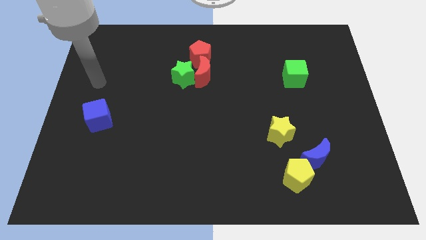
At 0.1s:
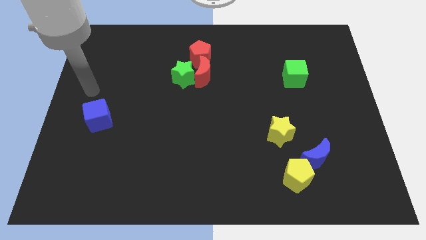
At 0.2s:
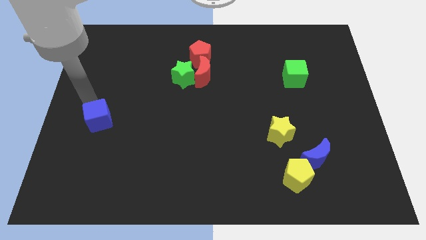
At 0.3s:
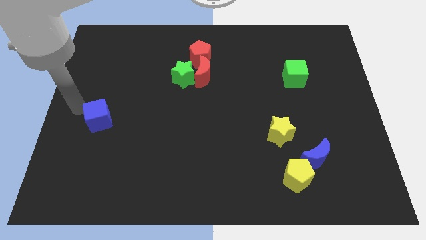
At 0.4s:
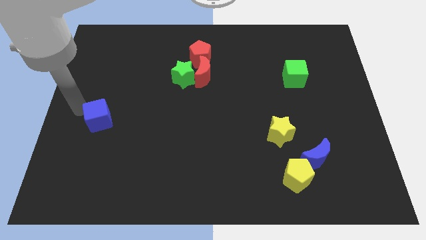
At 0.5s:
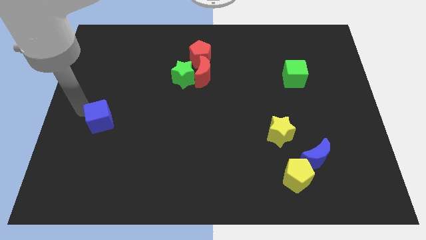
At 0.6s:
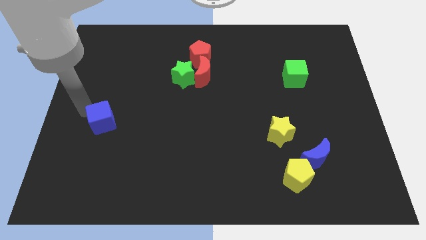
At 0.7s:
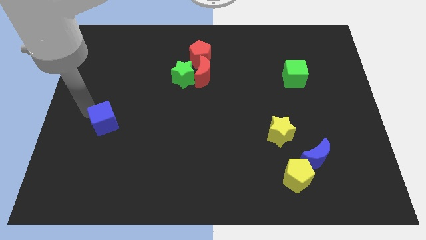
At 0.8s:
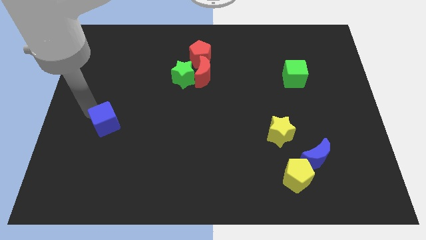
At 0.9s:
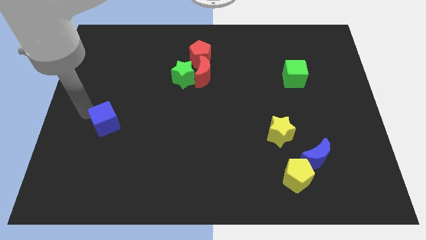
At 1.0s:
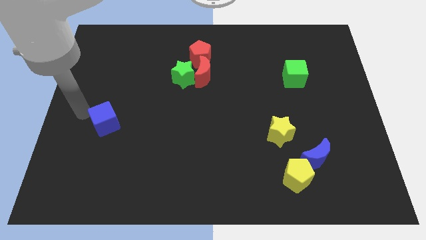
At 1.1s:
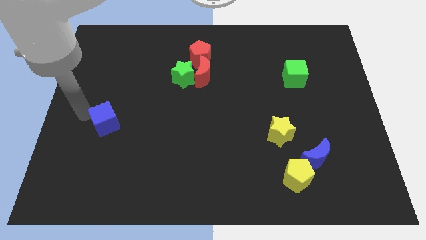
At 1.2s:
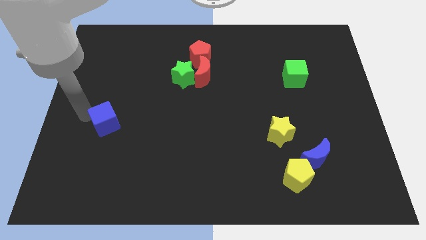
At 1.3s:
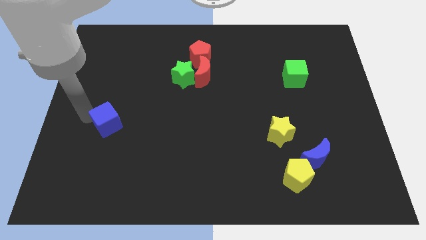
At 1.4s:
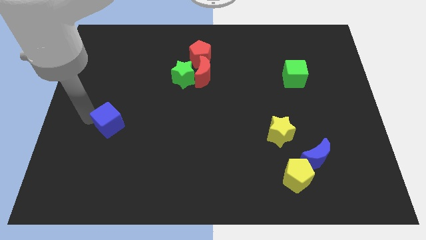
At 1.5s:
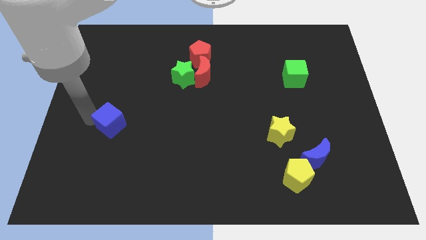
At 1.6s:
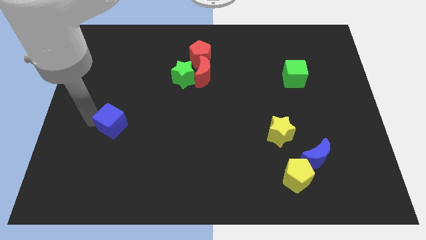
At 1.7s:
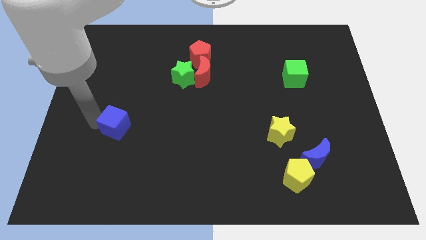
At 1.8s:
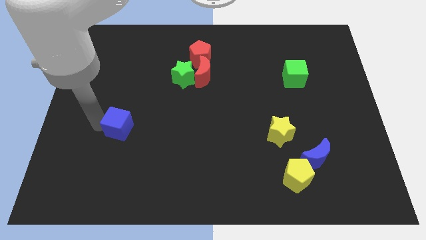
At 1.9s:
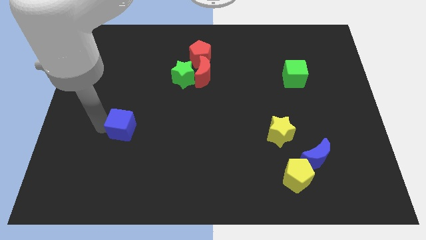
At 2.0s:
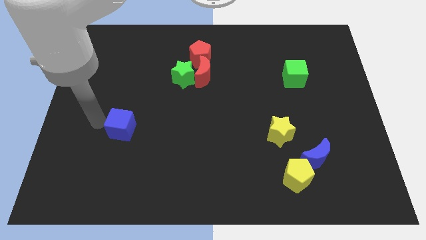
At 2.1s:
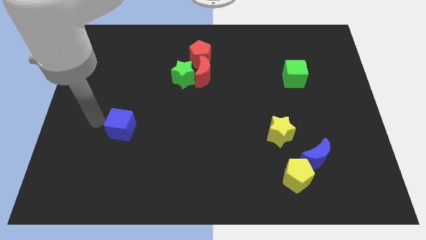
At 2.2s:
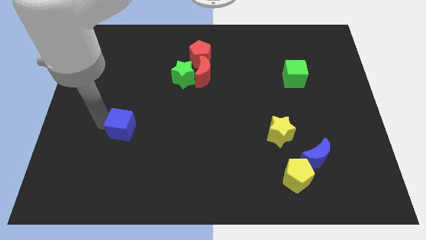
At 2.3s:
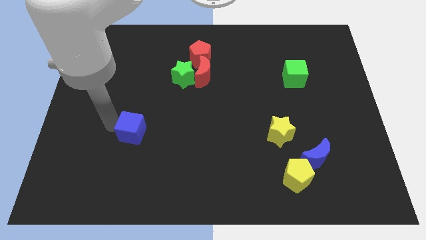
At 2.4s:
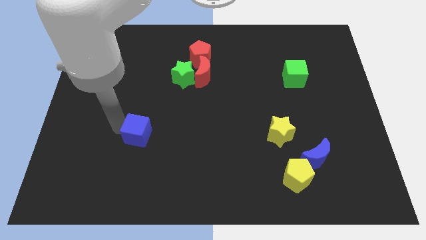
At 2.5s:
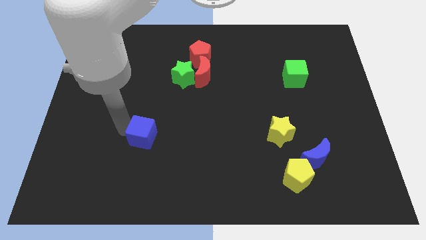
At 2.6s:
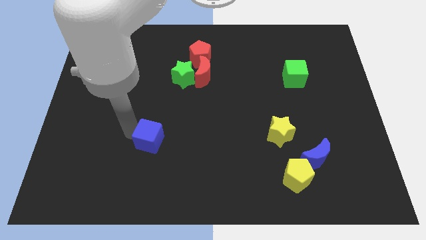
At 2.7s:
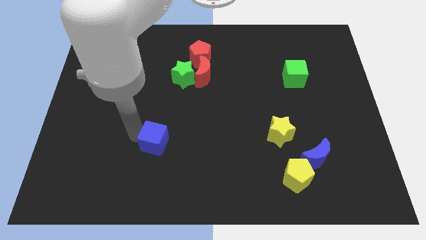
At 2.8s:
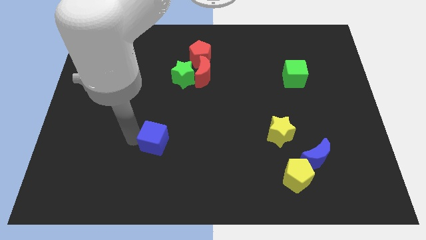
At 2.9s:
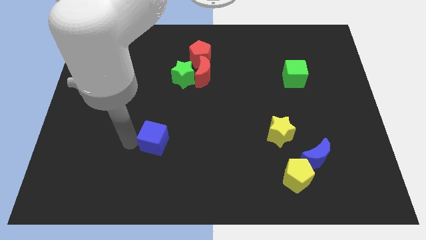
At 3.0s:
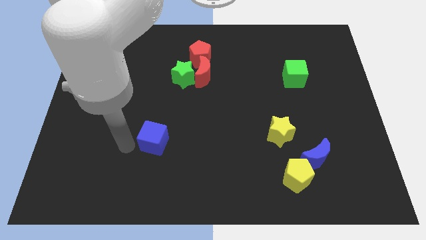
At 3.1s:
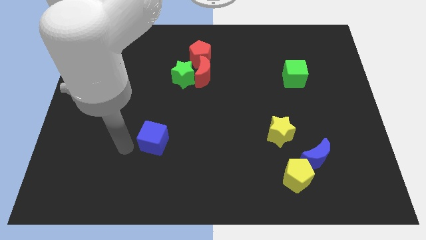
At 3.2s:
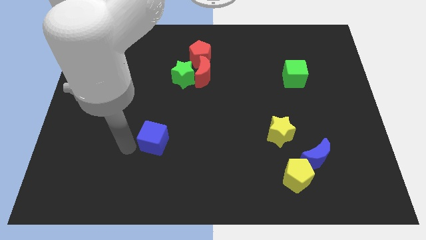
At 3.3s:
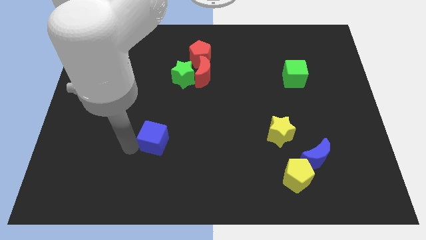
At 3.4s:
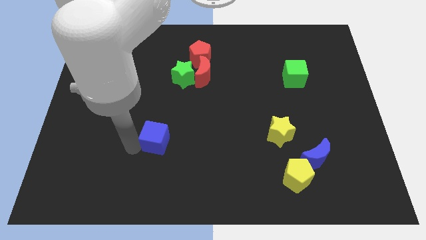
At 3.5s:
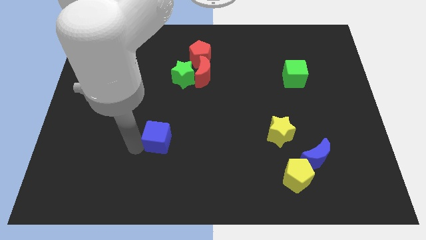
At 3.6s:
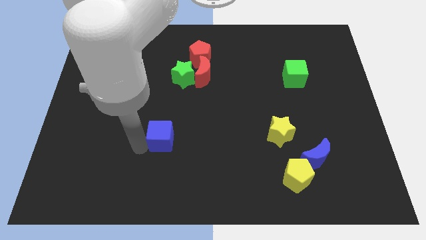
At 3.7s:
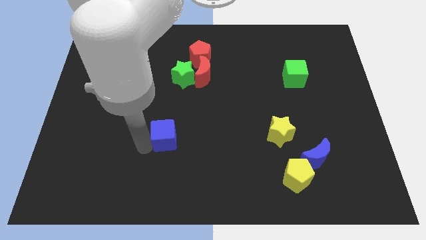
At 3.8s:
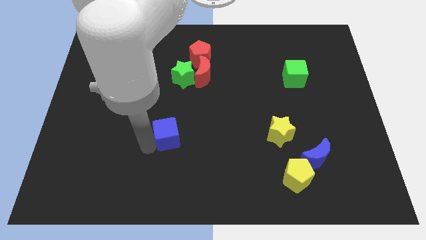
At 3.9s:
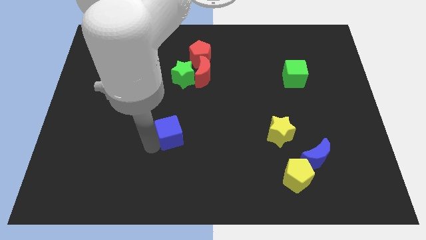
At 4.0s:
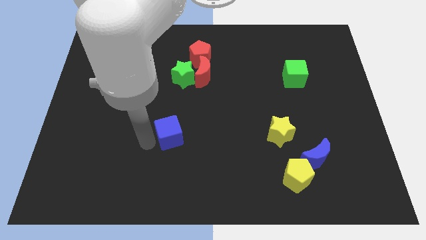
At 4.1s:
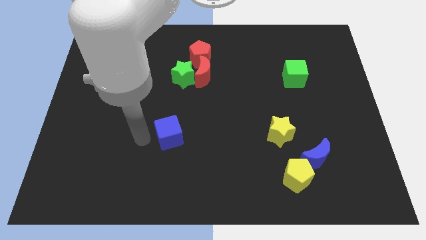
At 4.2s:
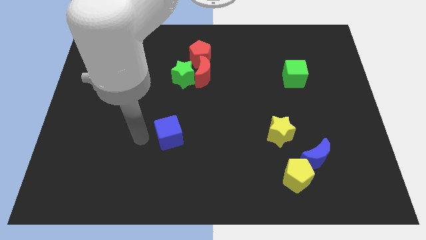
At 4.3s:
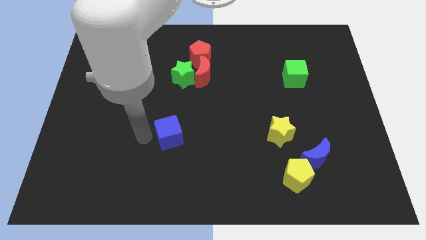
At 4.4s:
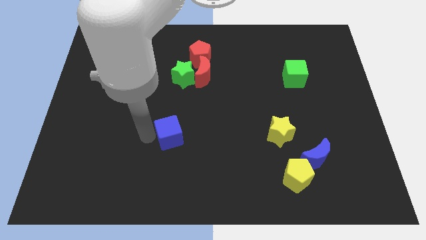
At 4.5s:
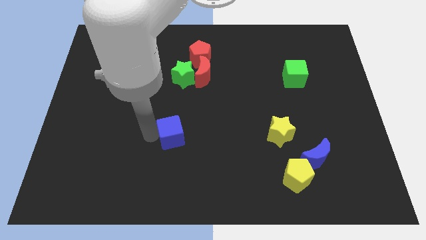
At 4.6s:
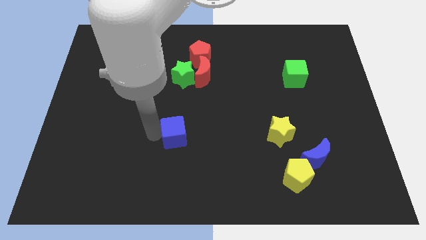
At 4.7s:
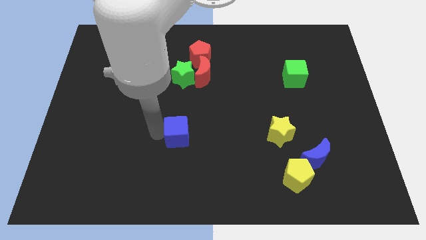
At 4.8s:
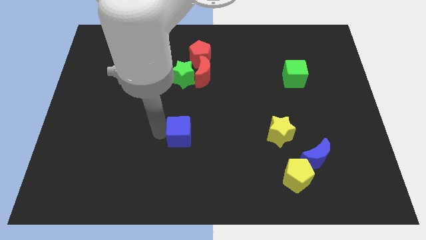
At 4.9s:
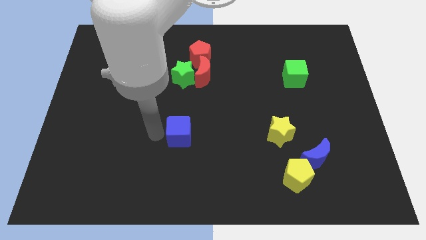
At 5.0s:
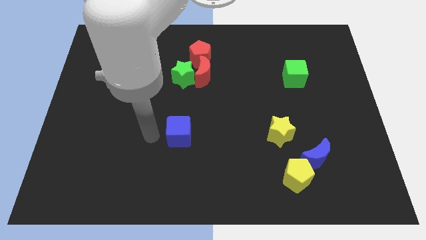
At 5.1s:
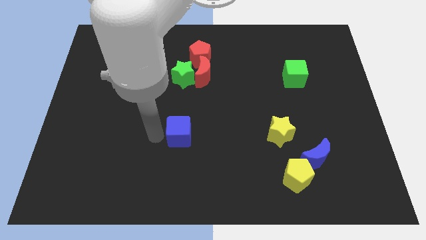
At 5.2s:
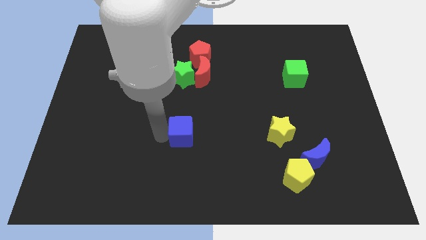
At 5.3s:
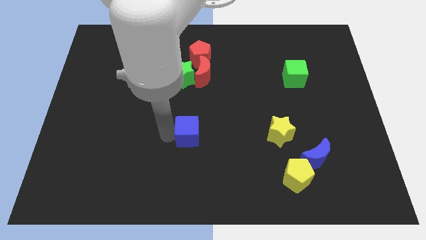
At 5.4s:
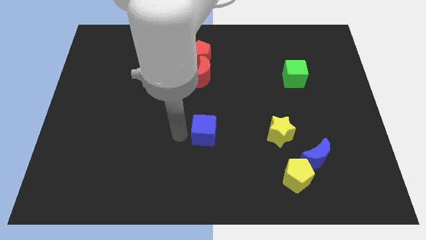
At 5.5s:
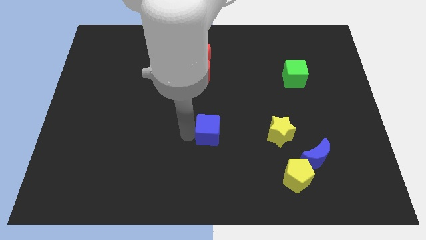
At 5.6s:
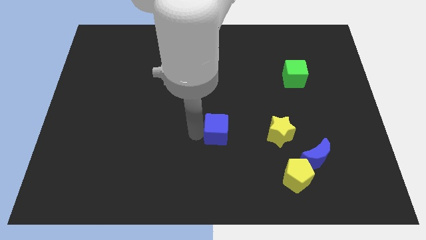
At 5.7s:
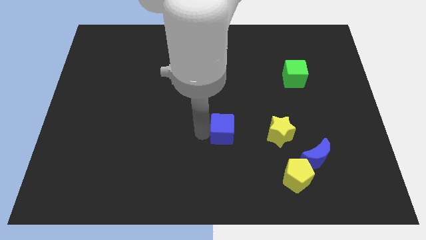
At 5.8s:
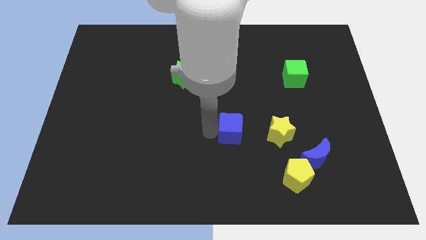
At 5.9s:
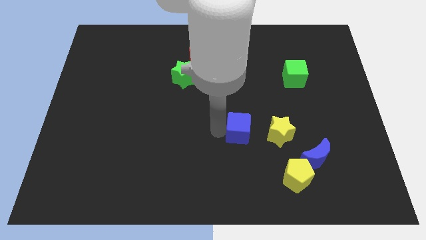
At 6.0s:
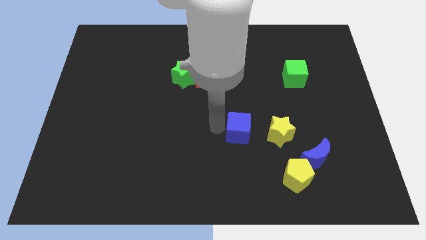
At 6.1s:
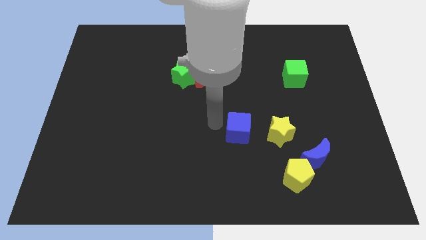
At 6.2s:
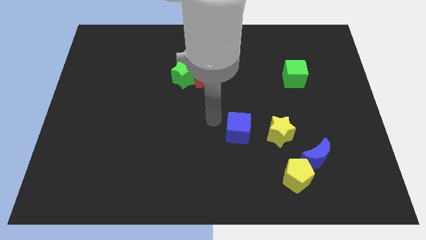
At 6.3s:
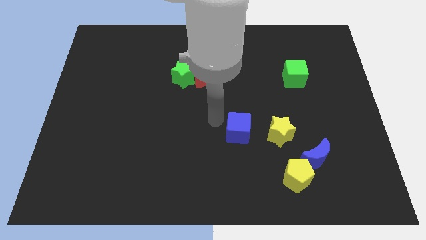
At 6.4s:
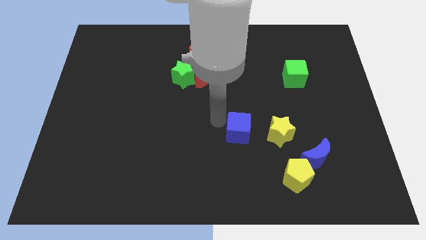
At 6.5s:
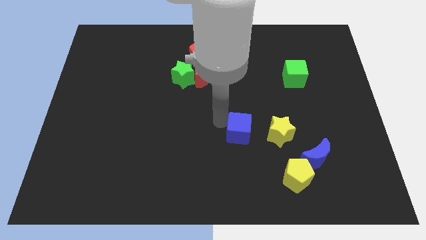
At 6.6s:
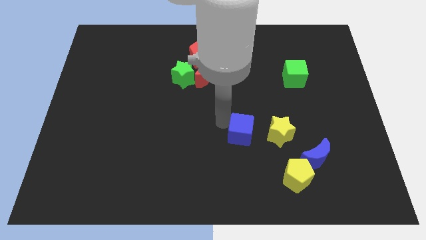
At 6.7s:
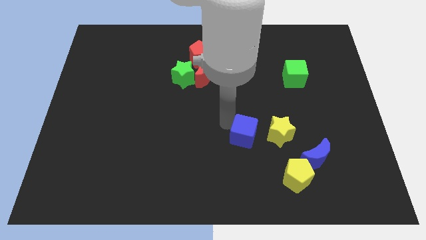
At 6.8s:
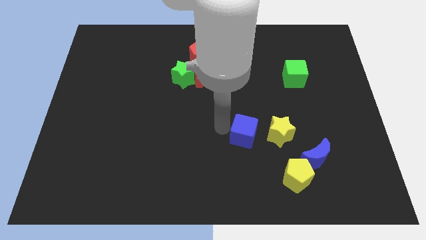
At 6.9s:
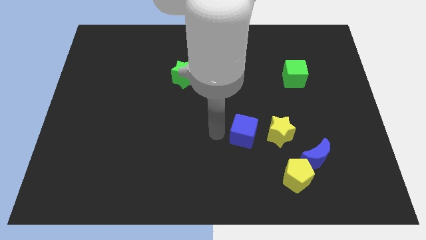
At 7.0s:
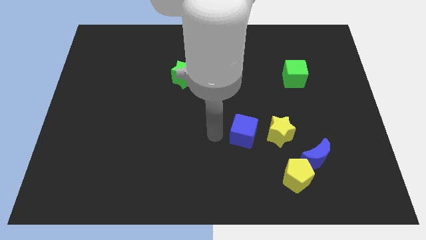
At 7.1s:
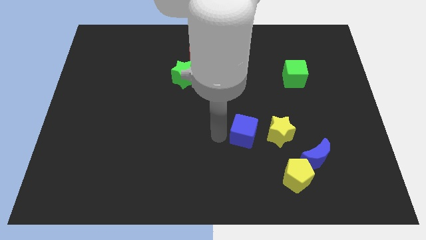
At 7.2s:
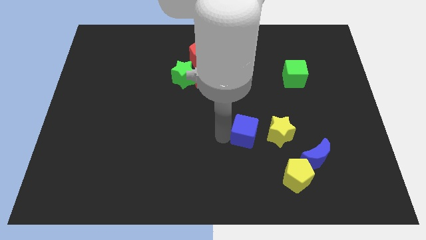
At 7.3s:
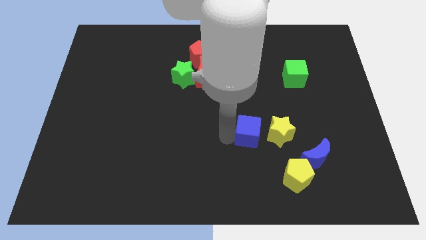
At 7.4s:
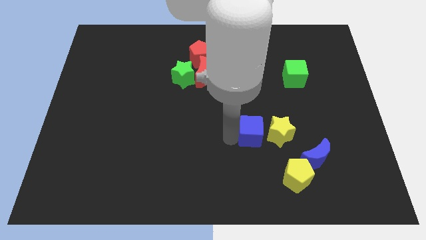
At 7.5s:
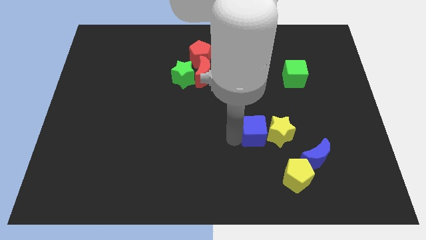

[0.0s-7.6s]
move the blue cube next to the yellow star
